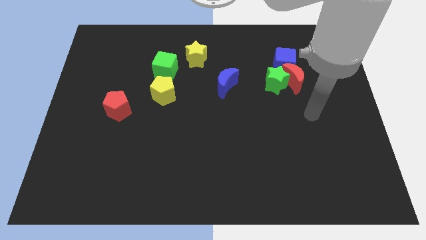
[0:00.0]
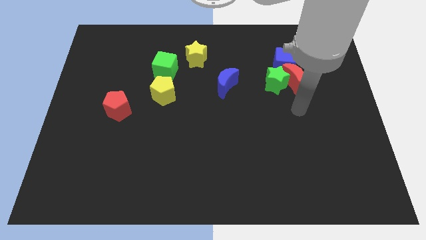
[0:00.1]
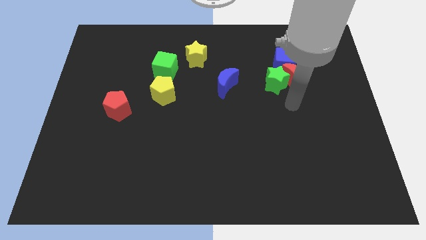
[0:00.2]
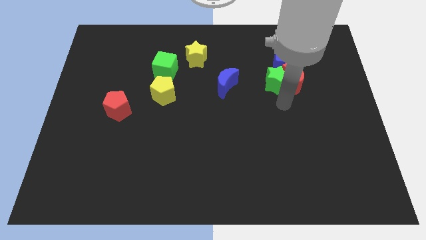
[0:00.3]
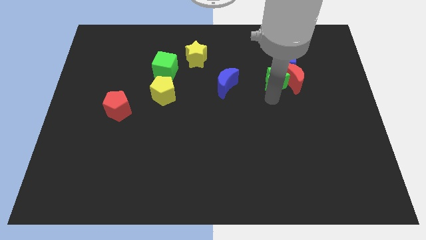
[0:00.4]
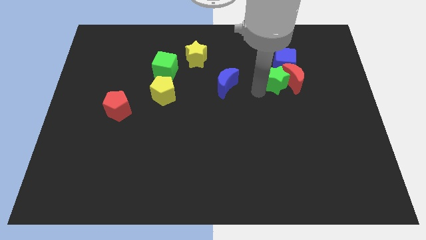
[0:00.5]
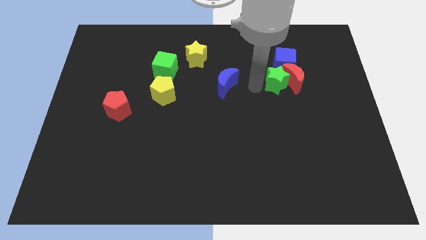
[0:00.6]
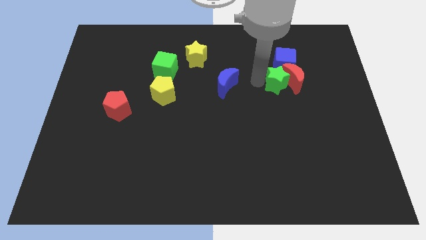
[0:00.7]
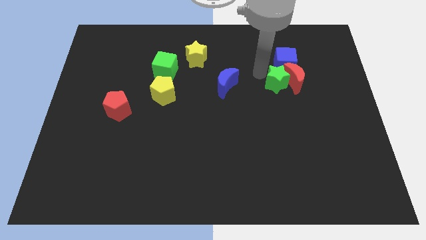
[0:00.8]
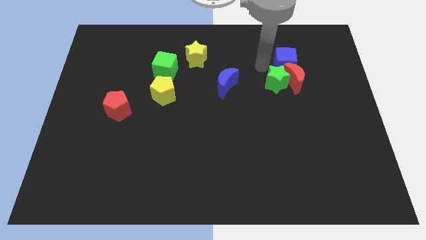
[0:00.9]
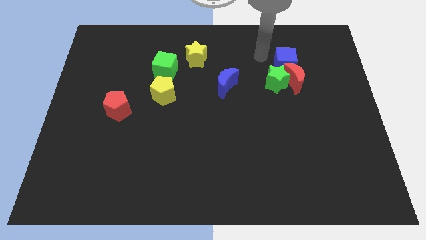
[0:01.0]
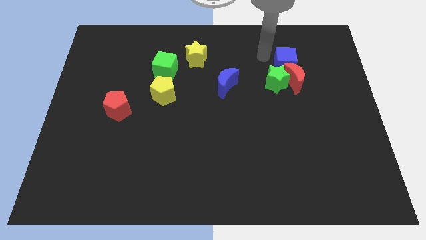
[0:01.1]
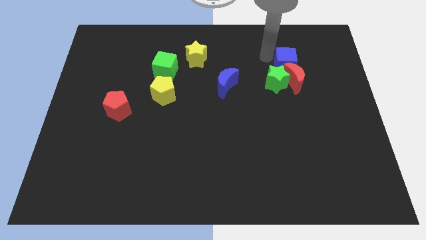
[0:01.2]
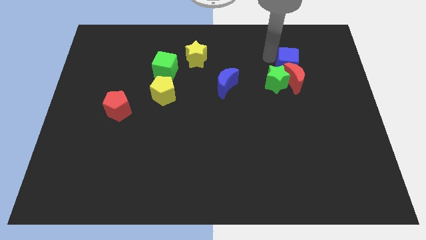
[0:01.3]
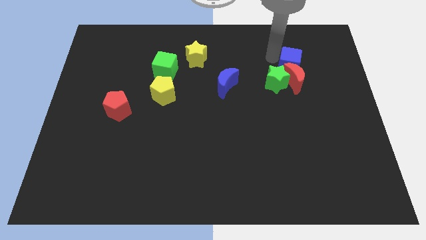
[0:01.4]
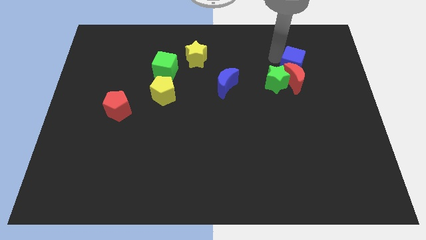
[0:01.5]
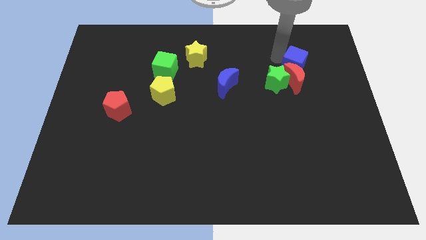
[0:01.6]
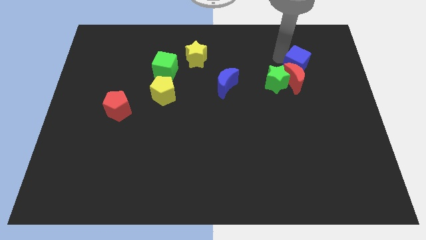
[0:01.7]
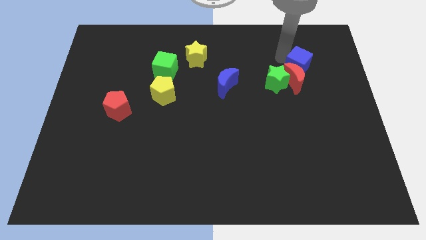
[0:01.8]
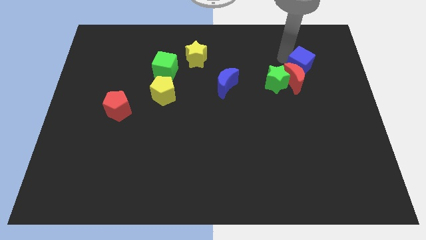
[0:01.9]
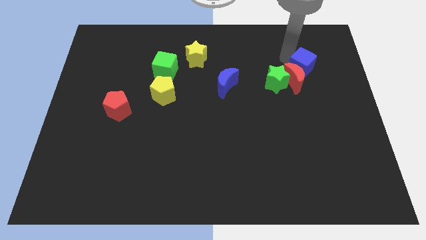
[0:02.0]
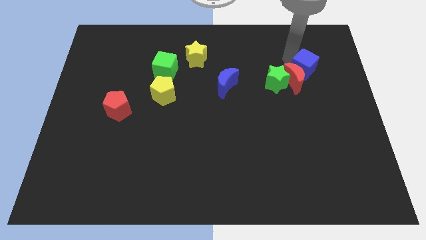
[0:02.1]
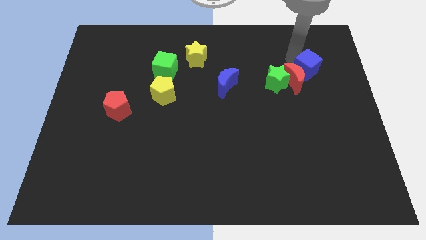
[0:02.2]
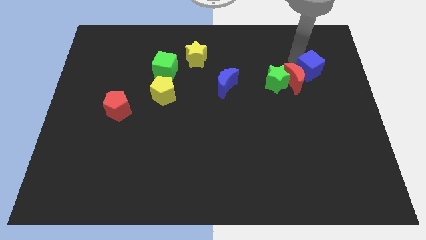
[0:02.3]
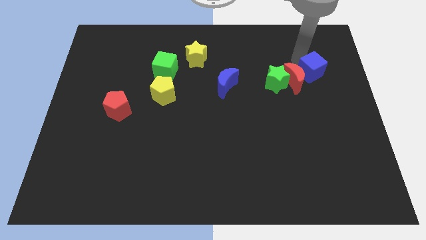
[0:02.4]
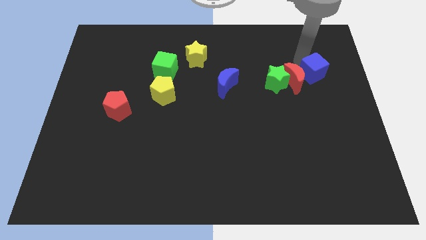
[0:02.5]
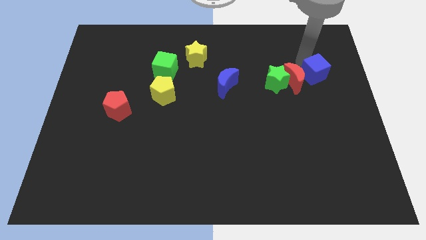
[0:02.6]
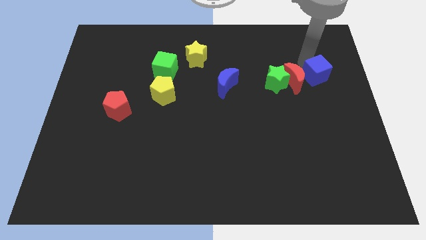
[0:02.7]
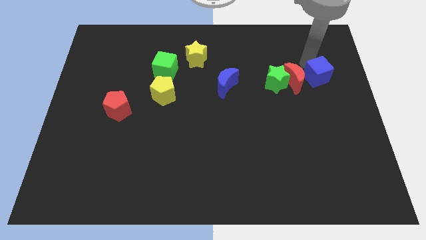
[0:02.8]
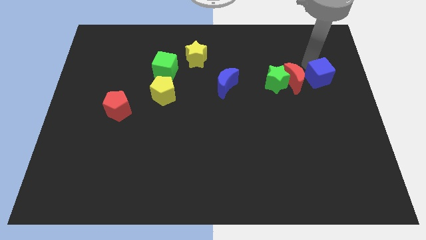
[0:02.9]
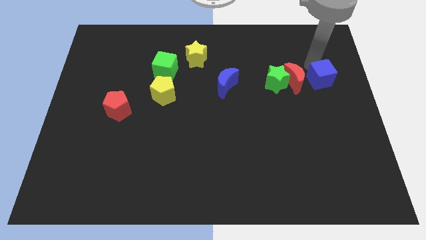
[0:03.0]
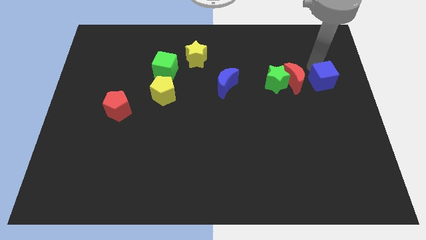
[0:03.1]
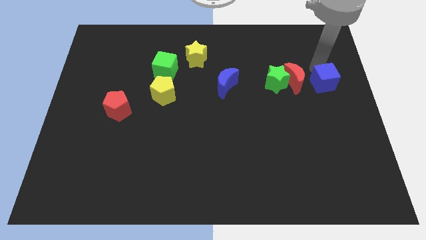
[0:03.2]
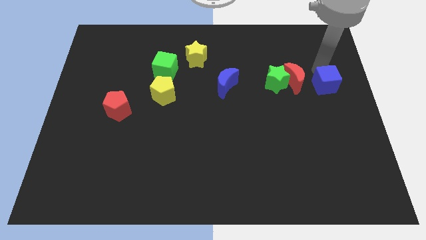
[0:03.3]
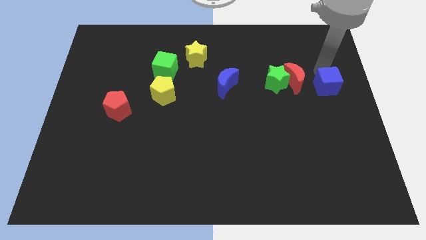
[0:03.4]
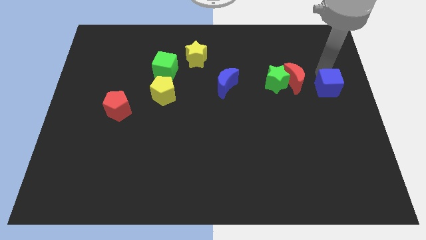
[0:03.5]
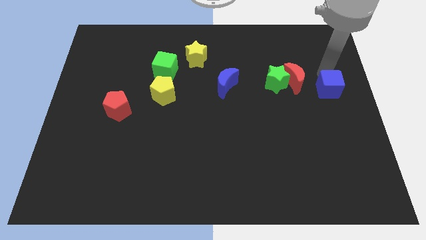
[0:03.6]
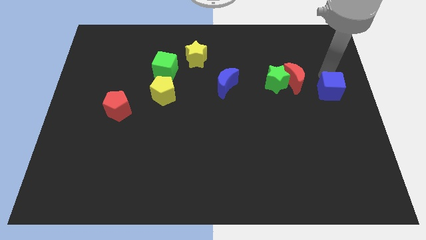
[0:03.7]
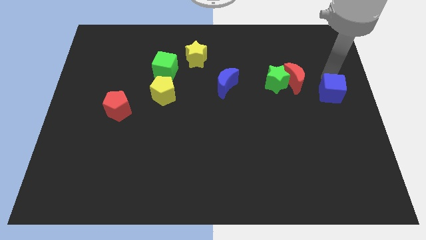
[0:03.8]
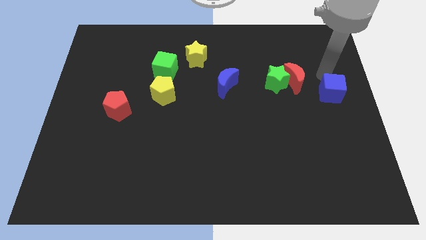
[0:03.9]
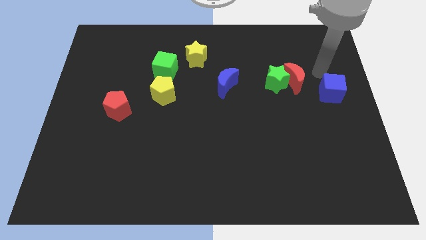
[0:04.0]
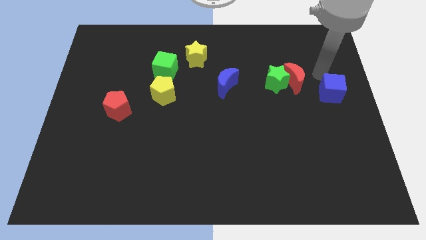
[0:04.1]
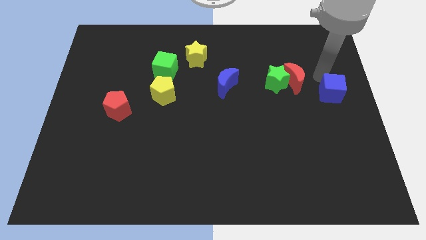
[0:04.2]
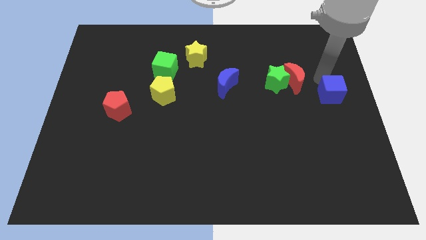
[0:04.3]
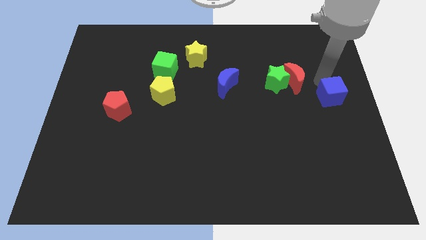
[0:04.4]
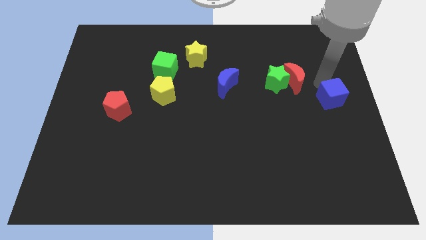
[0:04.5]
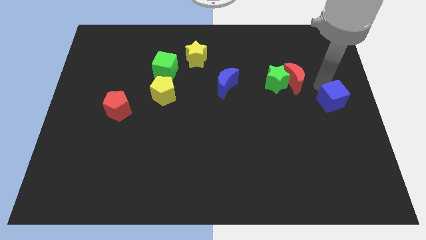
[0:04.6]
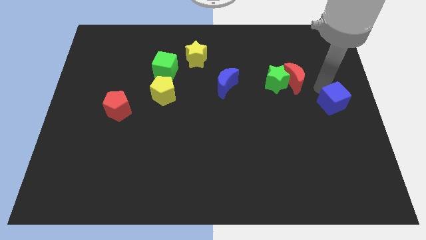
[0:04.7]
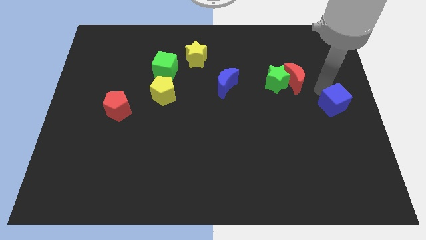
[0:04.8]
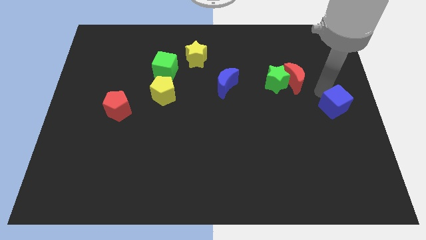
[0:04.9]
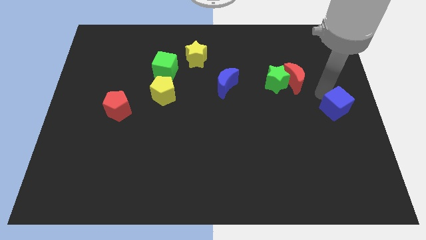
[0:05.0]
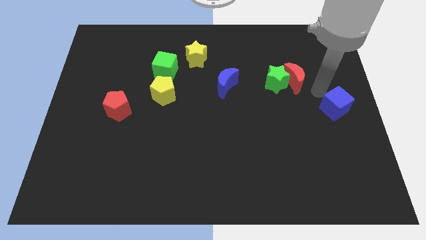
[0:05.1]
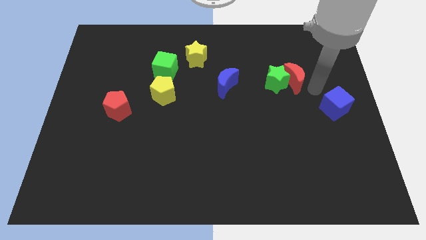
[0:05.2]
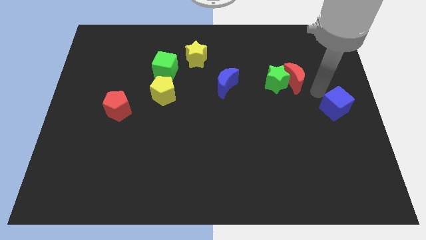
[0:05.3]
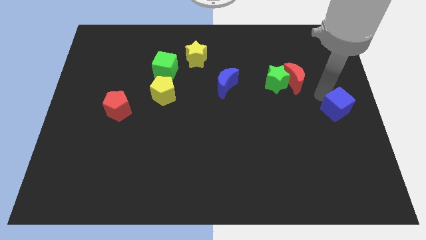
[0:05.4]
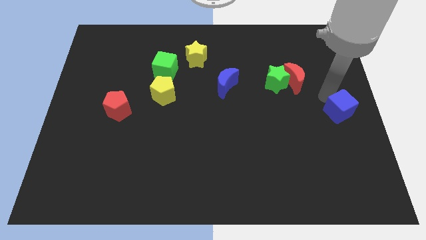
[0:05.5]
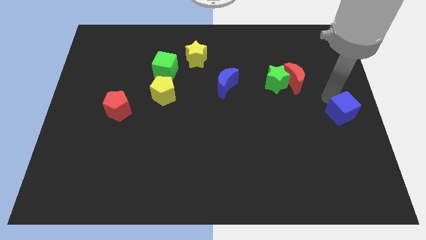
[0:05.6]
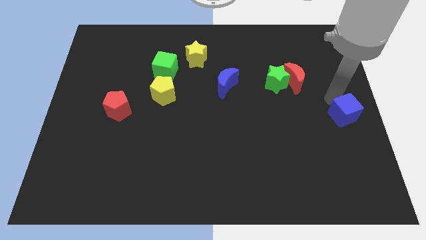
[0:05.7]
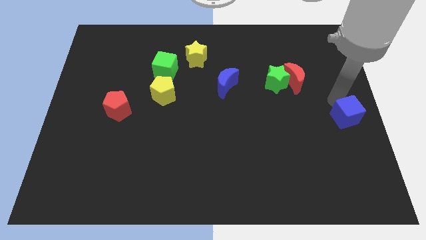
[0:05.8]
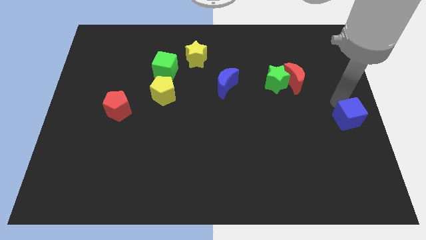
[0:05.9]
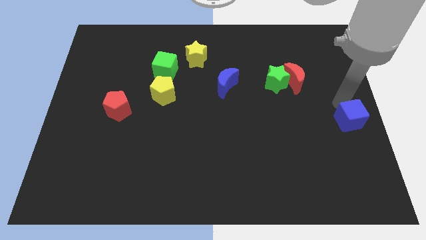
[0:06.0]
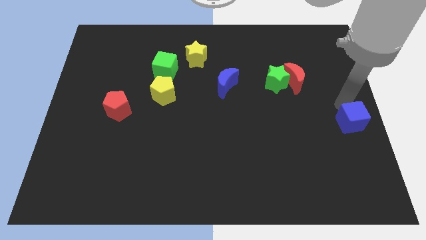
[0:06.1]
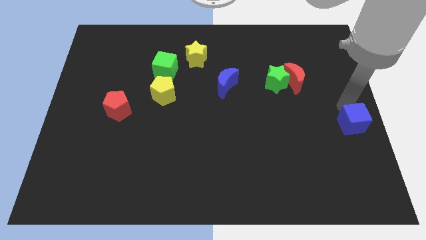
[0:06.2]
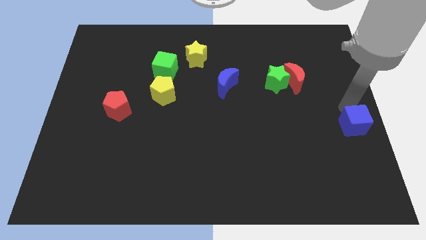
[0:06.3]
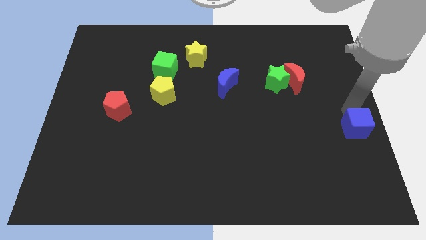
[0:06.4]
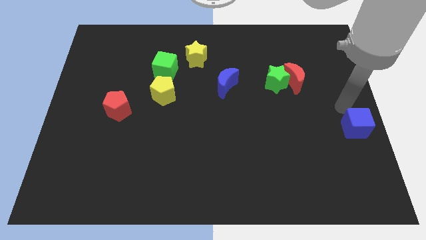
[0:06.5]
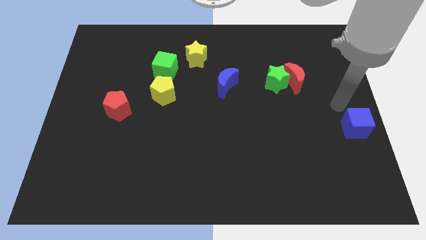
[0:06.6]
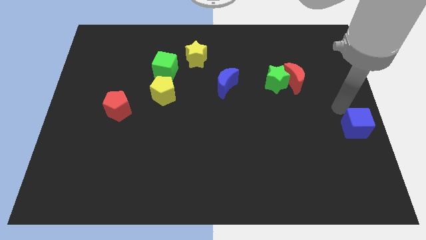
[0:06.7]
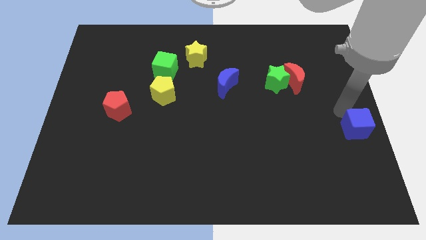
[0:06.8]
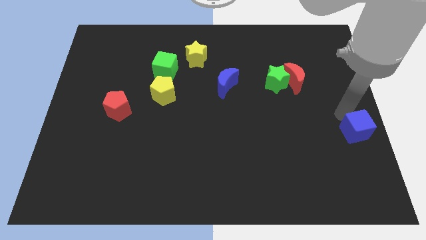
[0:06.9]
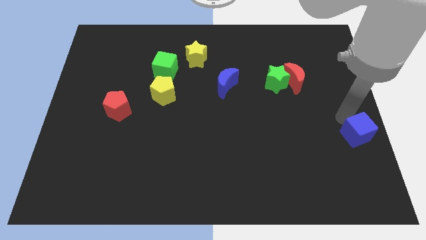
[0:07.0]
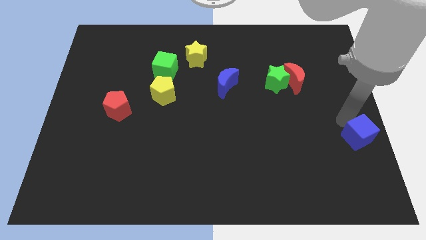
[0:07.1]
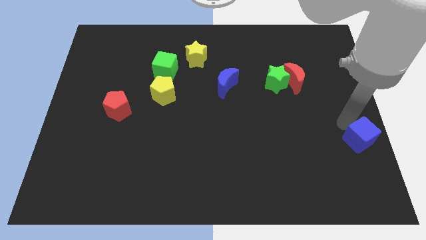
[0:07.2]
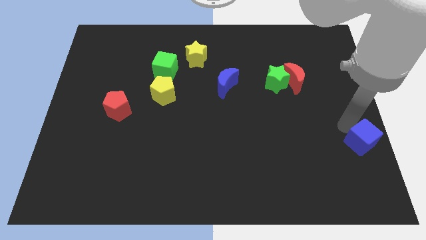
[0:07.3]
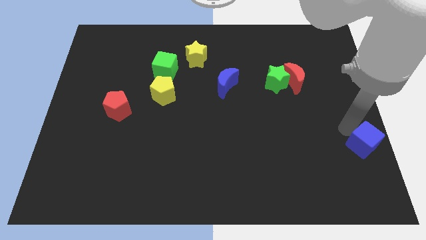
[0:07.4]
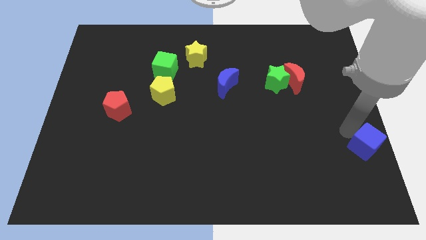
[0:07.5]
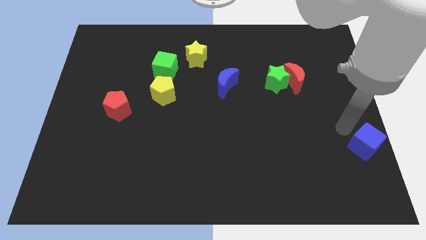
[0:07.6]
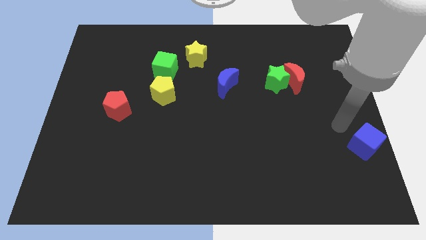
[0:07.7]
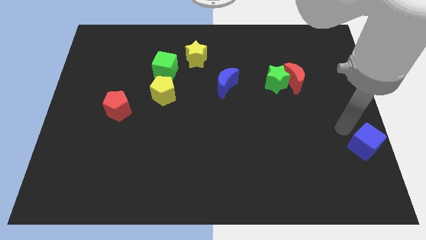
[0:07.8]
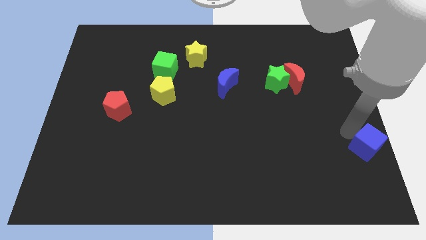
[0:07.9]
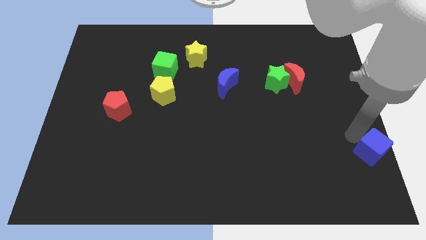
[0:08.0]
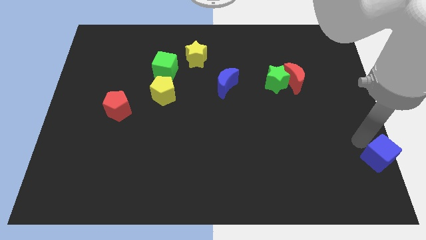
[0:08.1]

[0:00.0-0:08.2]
slide the blue cube to the bottom right
